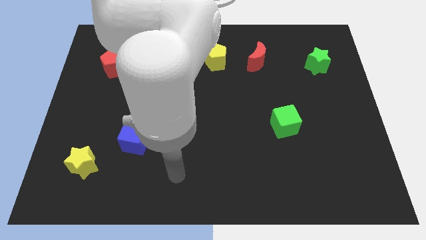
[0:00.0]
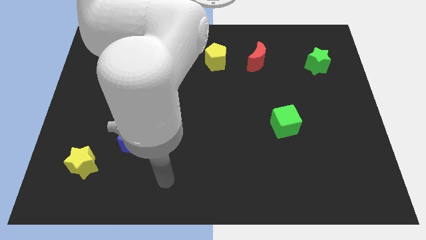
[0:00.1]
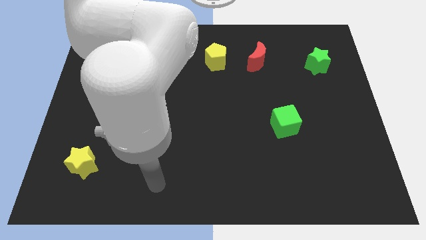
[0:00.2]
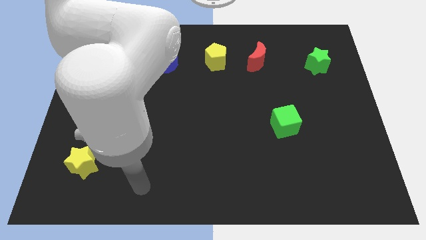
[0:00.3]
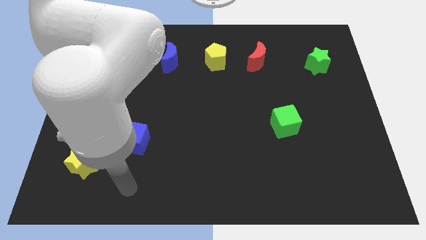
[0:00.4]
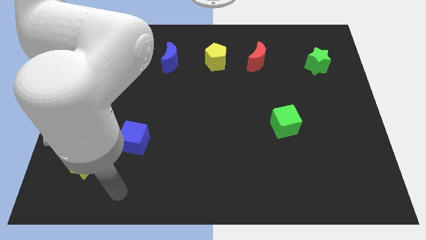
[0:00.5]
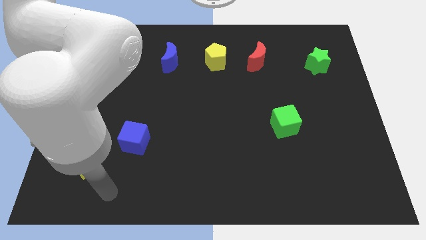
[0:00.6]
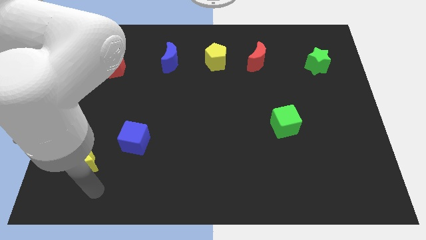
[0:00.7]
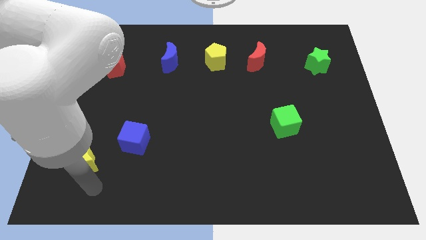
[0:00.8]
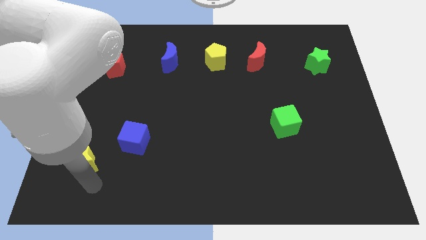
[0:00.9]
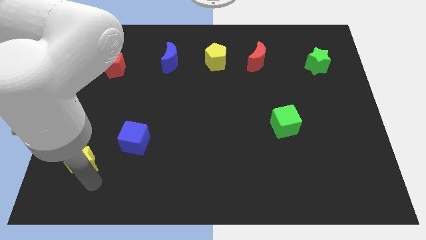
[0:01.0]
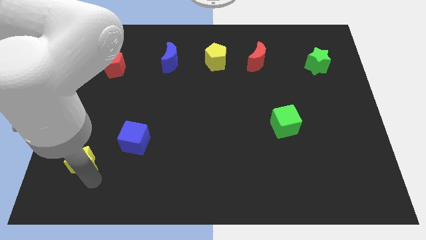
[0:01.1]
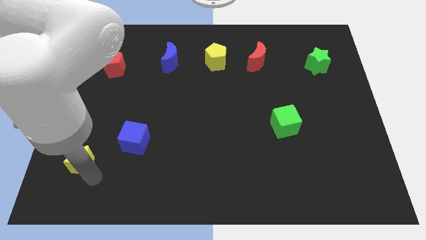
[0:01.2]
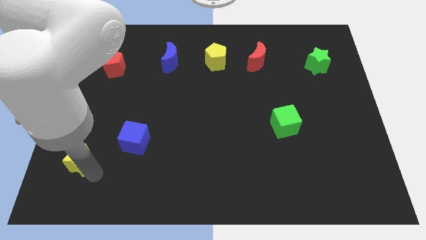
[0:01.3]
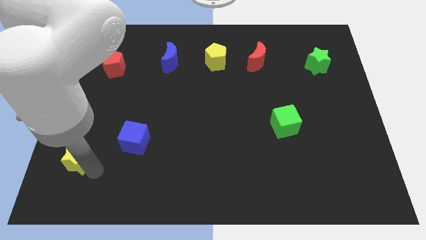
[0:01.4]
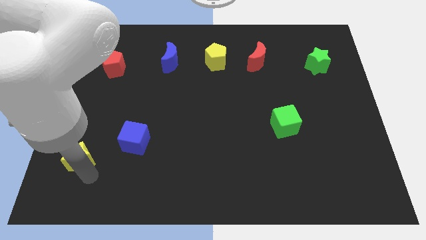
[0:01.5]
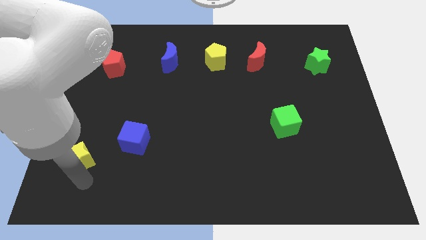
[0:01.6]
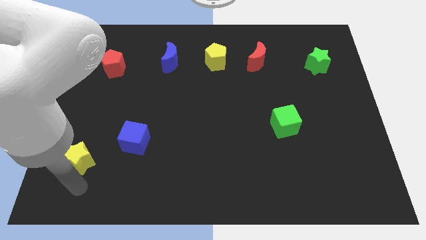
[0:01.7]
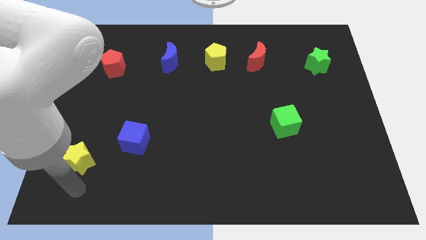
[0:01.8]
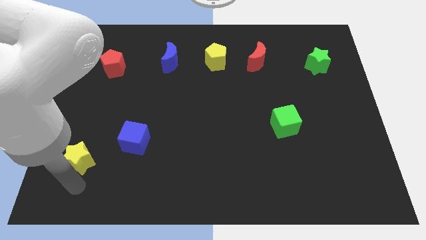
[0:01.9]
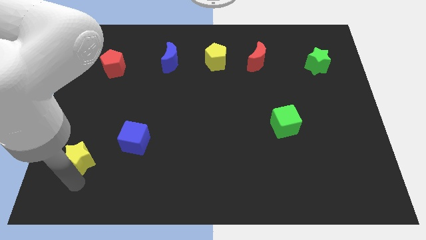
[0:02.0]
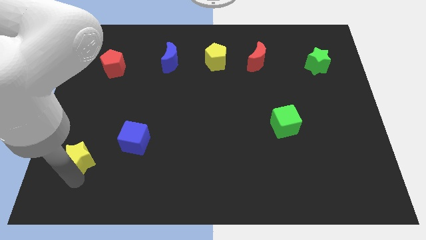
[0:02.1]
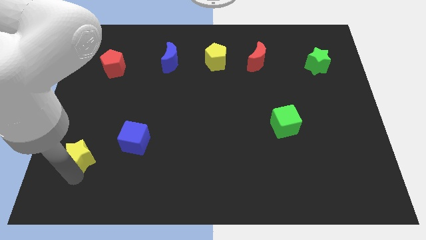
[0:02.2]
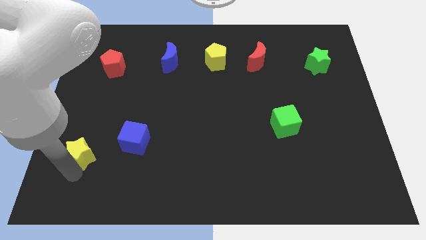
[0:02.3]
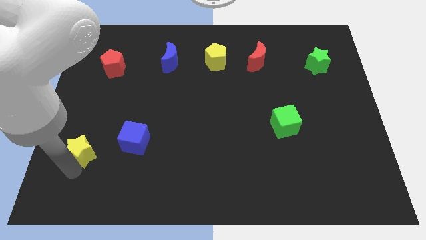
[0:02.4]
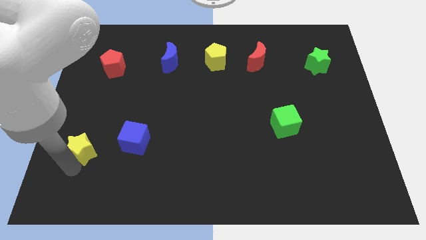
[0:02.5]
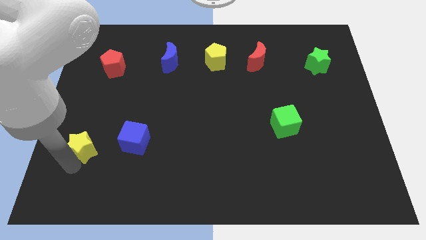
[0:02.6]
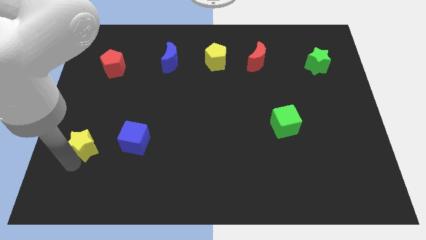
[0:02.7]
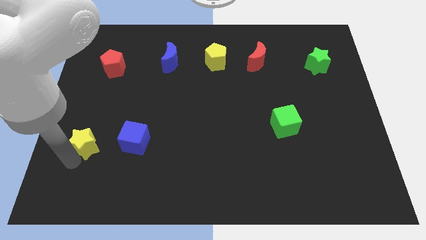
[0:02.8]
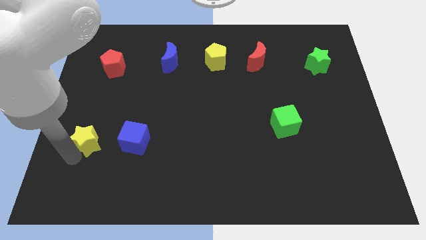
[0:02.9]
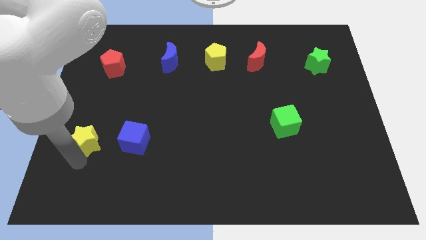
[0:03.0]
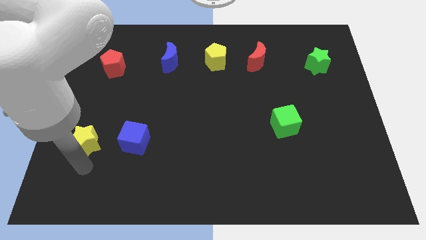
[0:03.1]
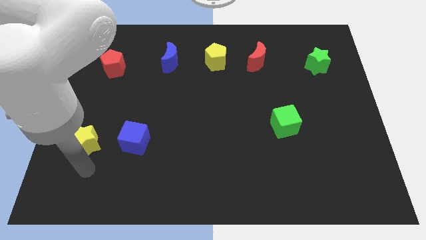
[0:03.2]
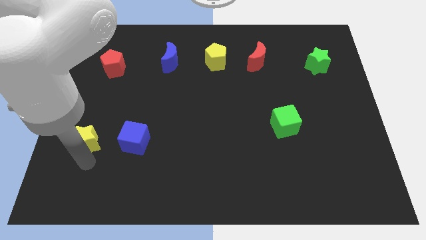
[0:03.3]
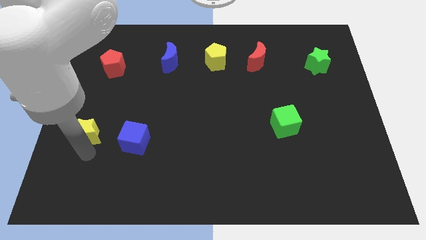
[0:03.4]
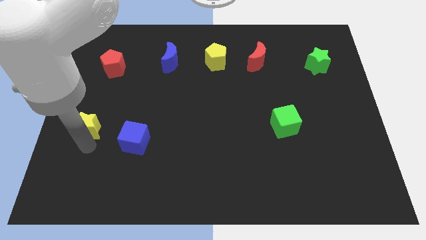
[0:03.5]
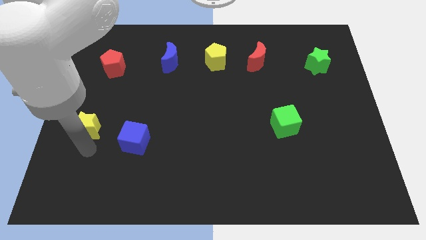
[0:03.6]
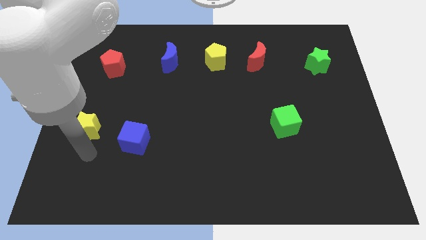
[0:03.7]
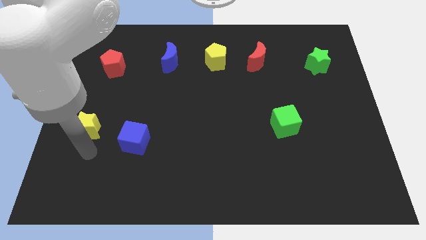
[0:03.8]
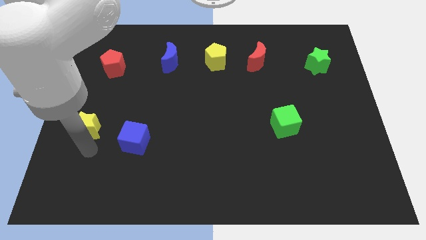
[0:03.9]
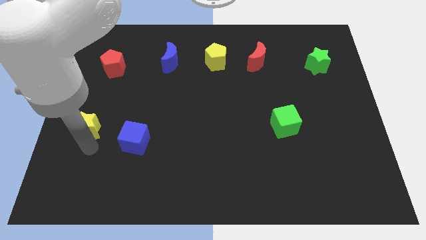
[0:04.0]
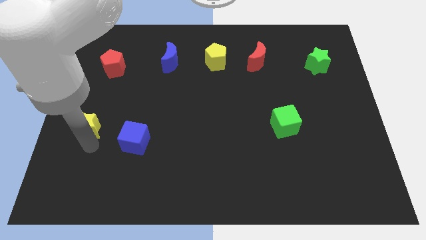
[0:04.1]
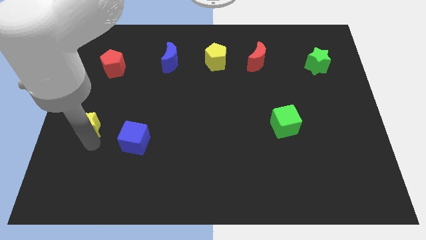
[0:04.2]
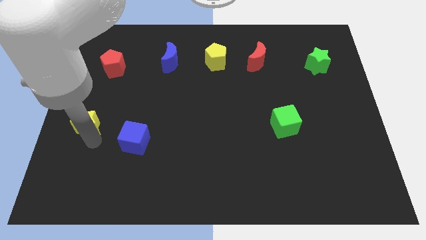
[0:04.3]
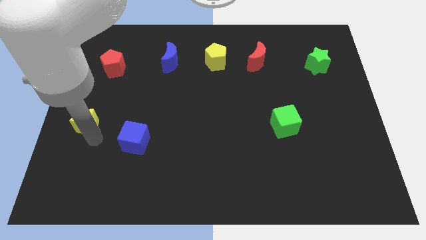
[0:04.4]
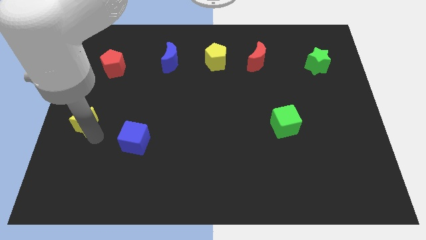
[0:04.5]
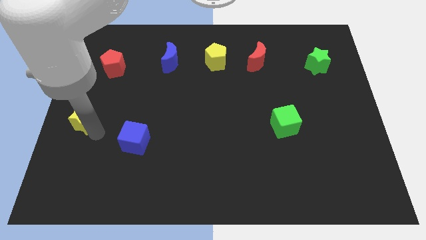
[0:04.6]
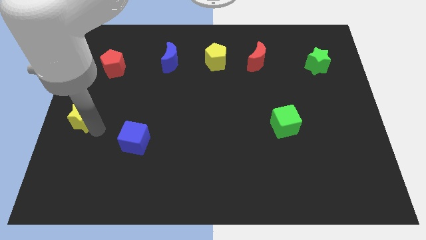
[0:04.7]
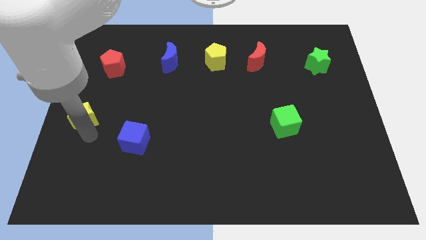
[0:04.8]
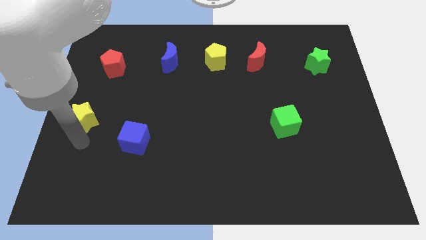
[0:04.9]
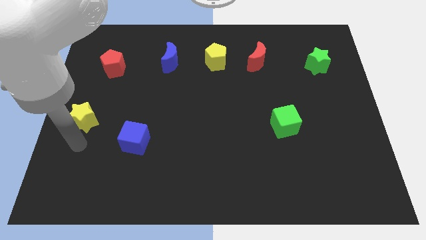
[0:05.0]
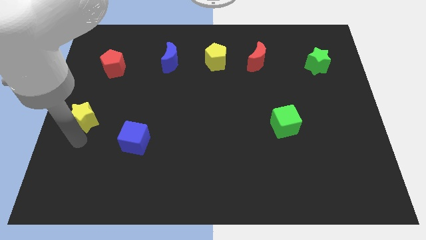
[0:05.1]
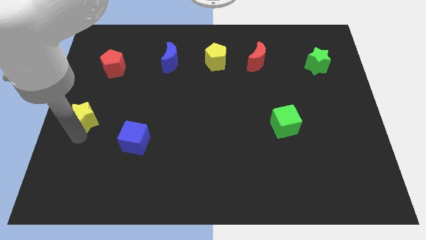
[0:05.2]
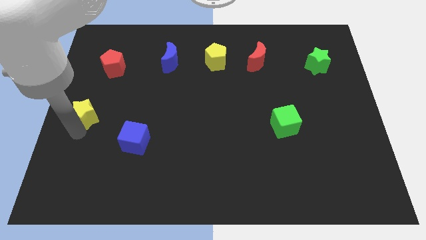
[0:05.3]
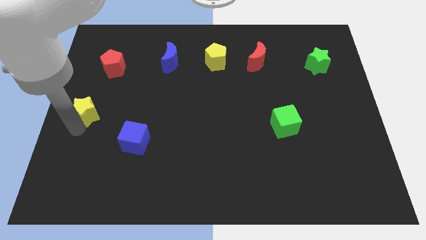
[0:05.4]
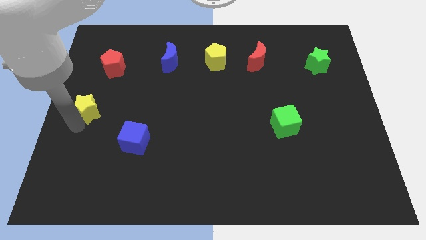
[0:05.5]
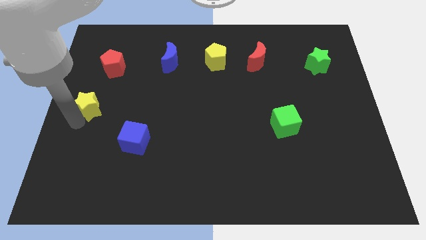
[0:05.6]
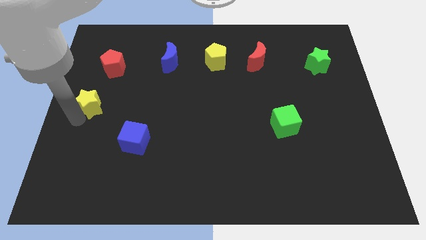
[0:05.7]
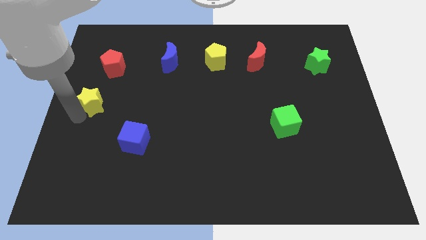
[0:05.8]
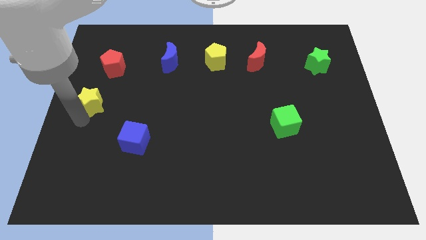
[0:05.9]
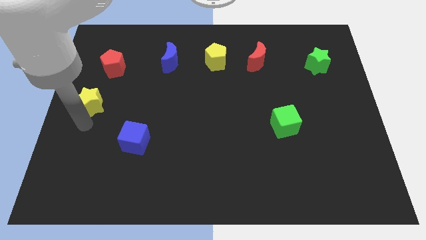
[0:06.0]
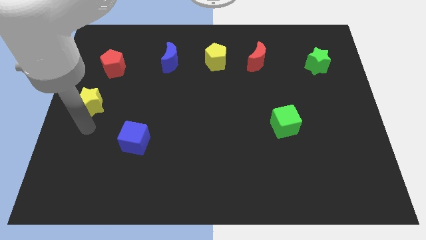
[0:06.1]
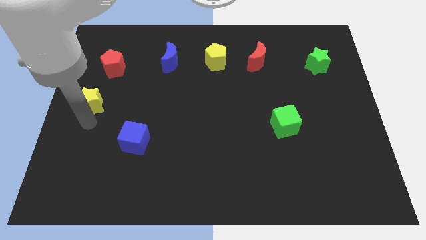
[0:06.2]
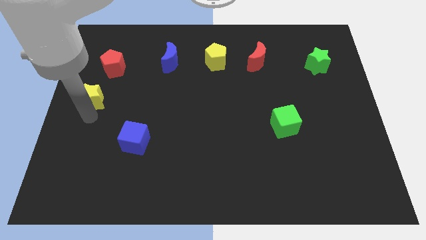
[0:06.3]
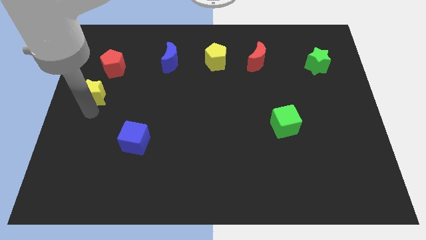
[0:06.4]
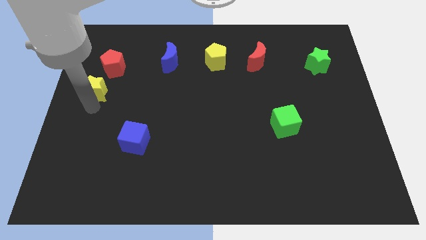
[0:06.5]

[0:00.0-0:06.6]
slide the yellow star upwards

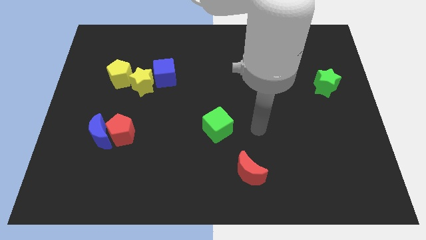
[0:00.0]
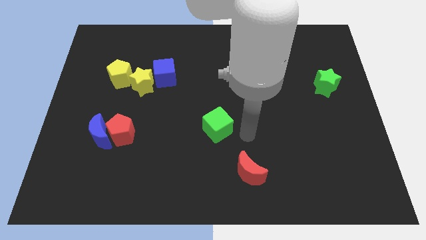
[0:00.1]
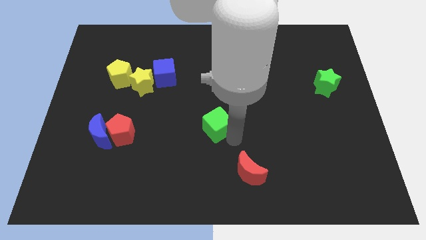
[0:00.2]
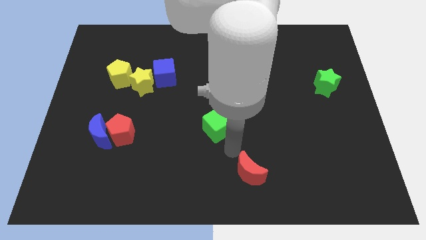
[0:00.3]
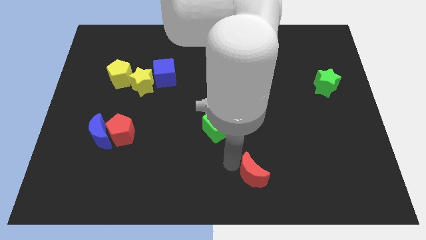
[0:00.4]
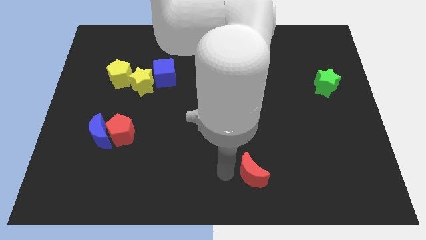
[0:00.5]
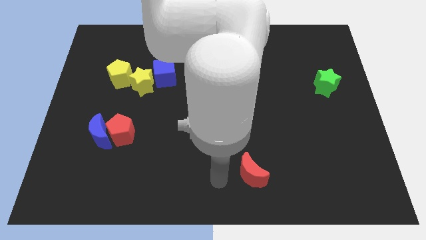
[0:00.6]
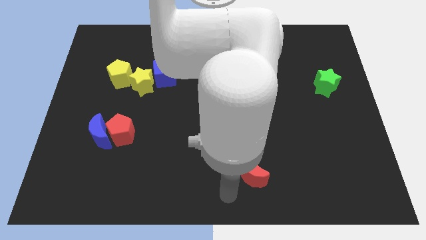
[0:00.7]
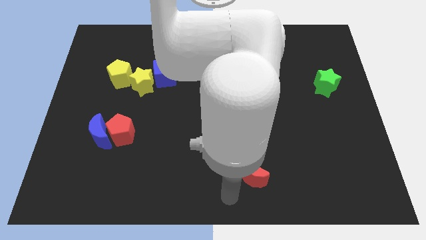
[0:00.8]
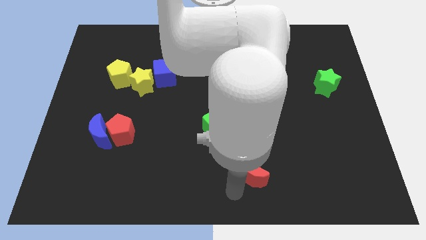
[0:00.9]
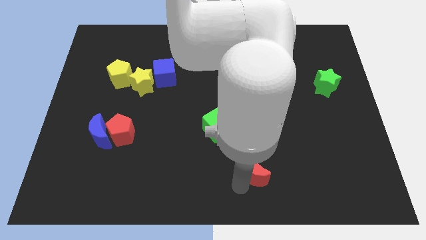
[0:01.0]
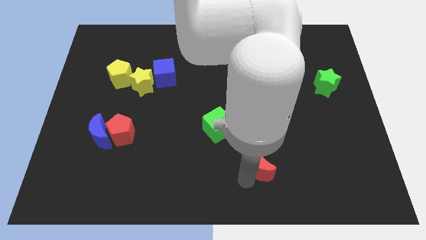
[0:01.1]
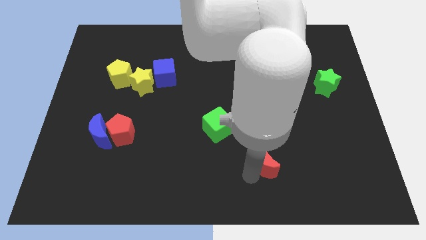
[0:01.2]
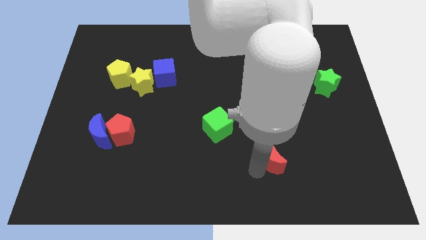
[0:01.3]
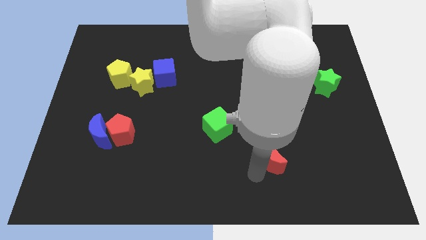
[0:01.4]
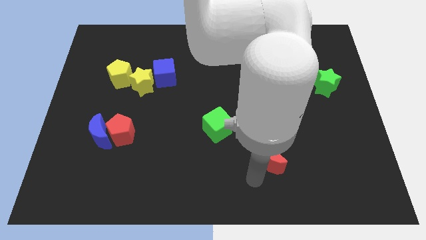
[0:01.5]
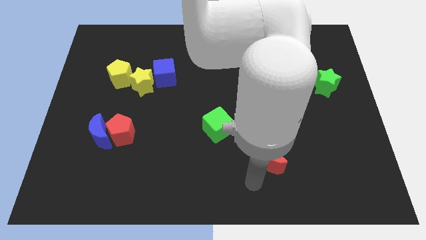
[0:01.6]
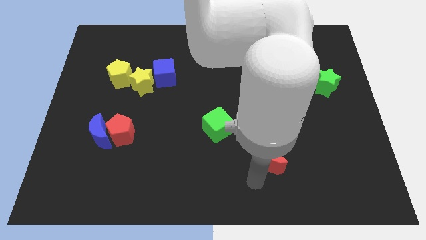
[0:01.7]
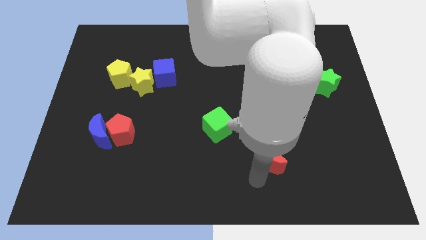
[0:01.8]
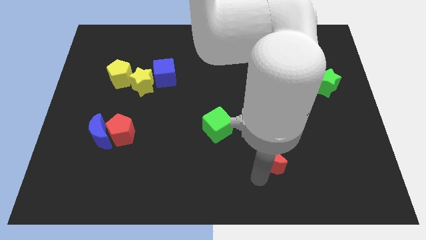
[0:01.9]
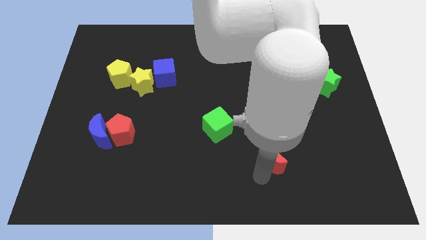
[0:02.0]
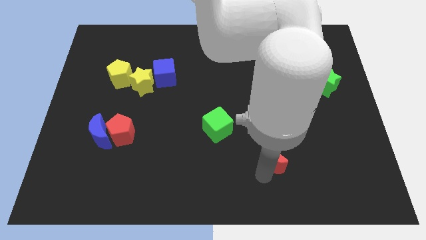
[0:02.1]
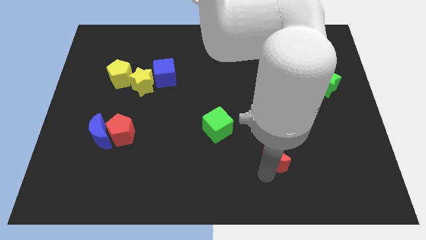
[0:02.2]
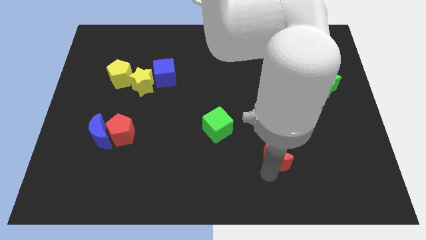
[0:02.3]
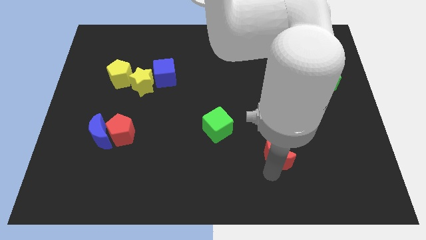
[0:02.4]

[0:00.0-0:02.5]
move the red moon upwards and then right a bit
